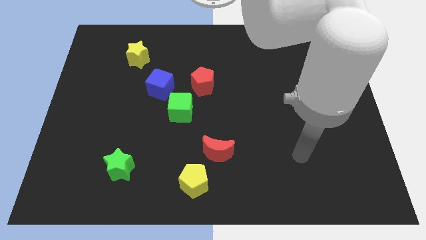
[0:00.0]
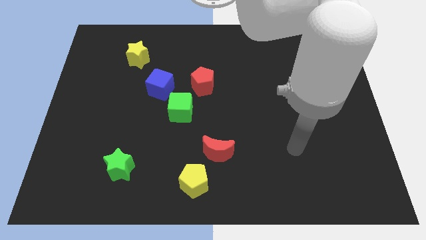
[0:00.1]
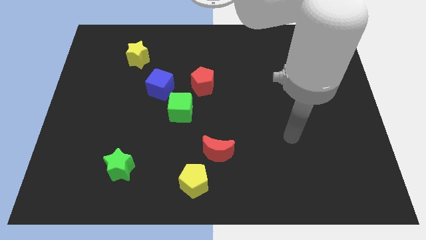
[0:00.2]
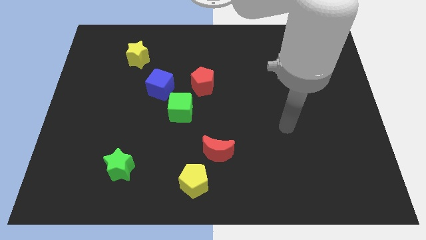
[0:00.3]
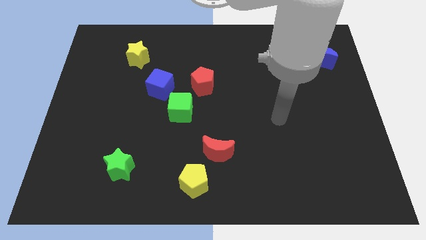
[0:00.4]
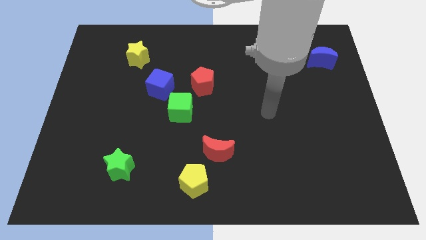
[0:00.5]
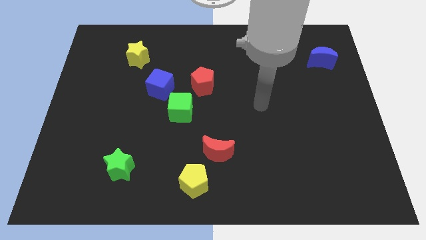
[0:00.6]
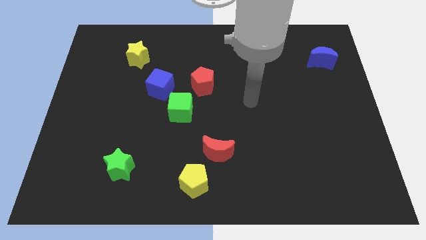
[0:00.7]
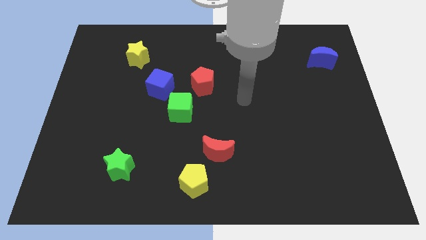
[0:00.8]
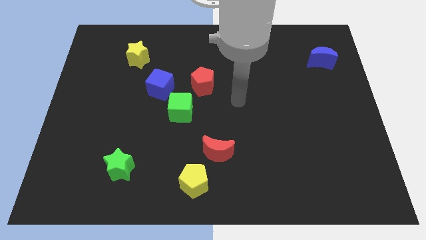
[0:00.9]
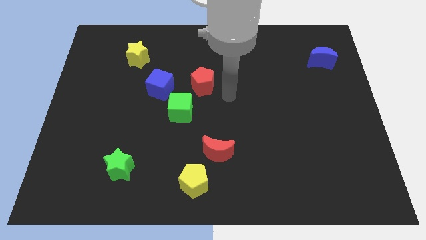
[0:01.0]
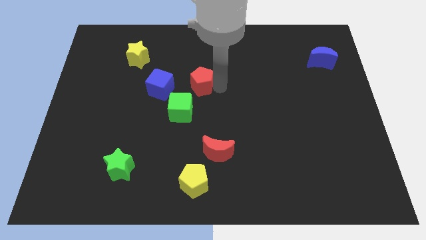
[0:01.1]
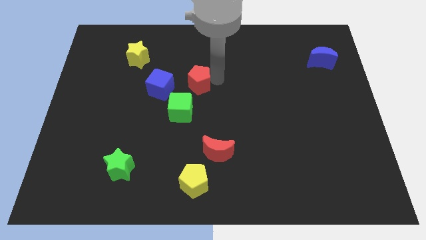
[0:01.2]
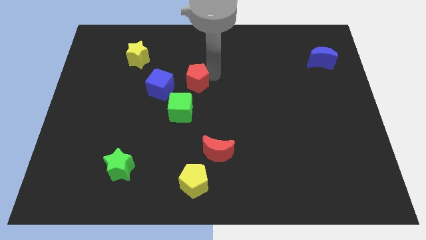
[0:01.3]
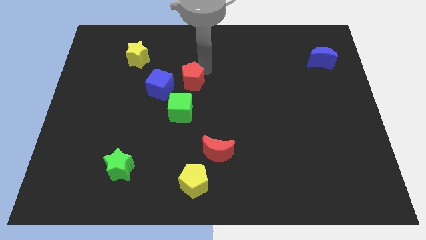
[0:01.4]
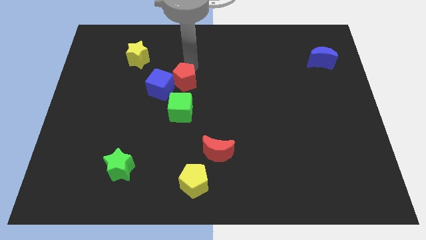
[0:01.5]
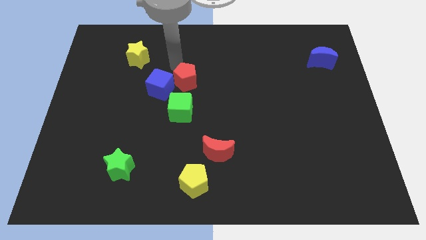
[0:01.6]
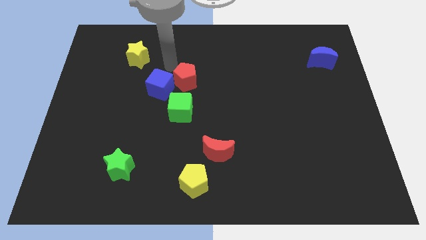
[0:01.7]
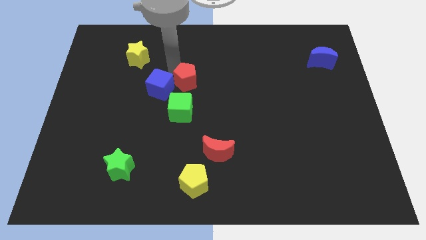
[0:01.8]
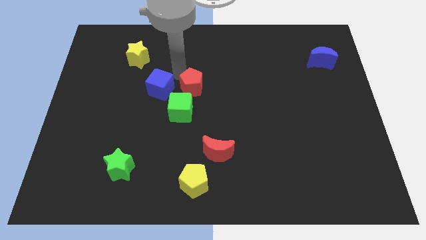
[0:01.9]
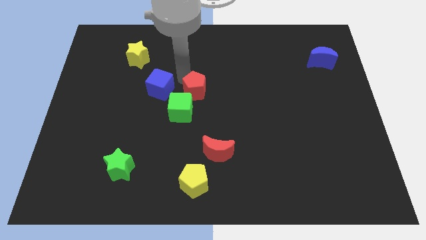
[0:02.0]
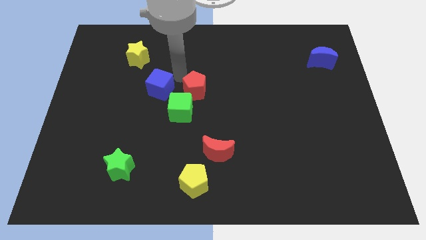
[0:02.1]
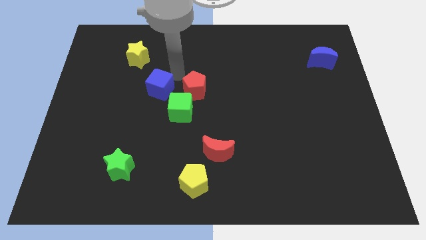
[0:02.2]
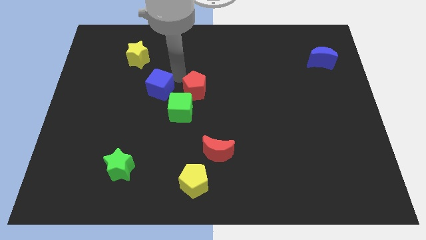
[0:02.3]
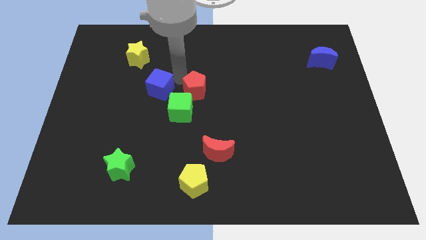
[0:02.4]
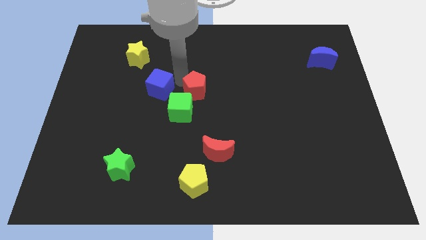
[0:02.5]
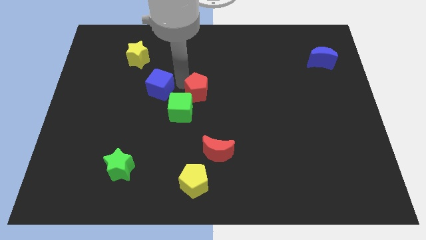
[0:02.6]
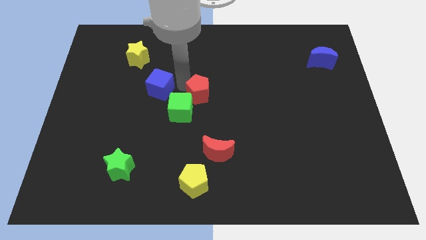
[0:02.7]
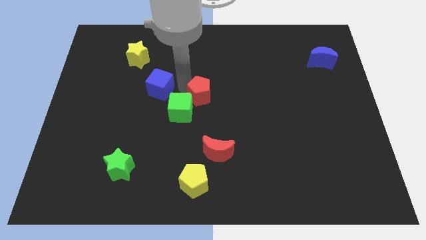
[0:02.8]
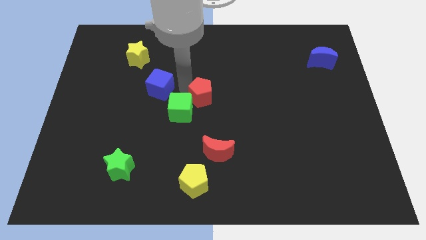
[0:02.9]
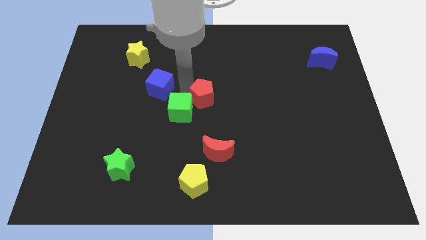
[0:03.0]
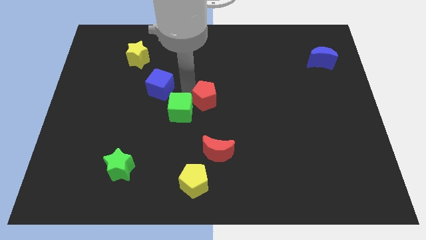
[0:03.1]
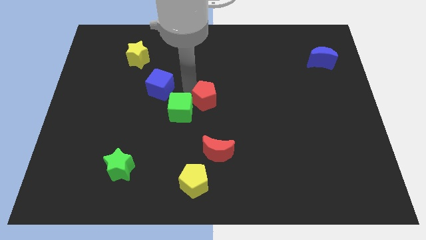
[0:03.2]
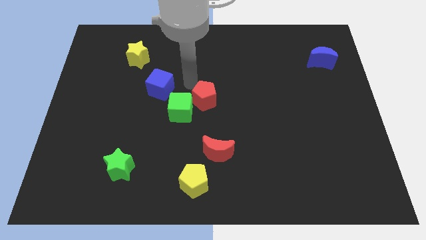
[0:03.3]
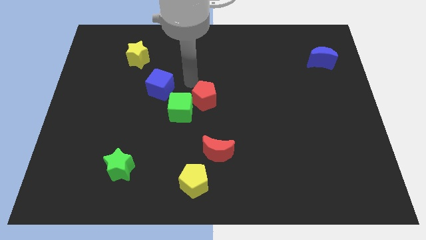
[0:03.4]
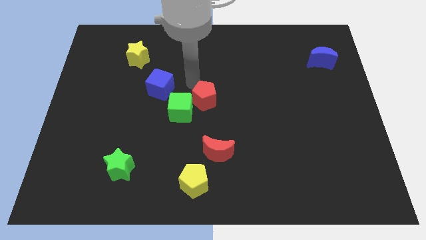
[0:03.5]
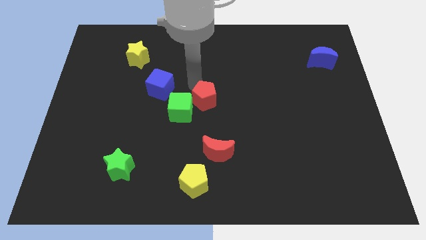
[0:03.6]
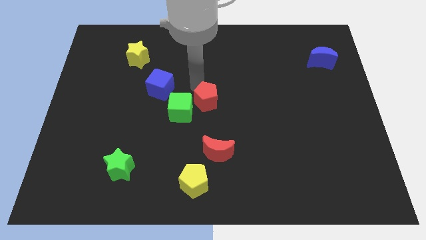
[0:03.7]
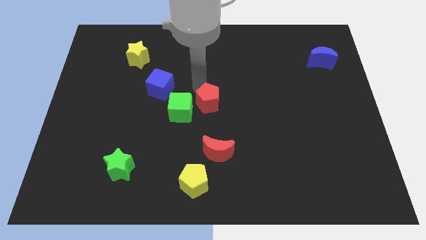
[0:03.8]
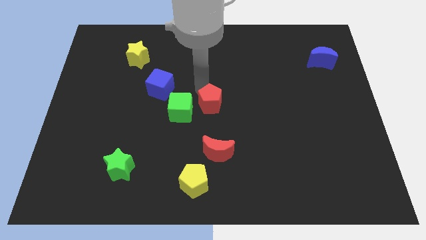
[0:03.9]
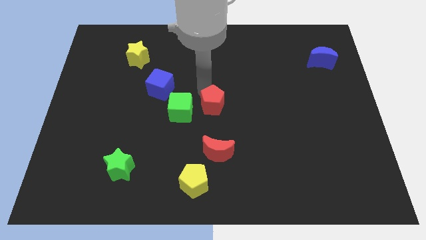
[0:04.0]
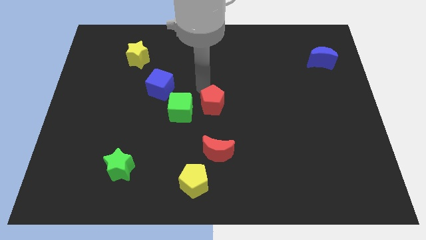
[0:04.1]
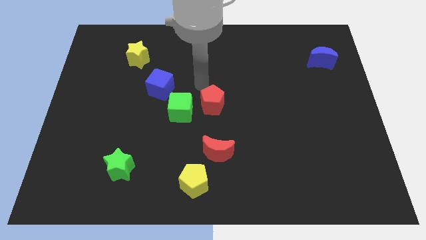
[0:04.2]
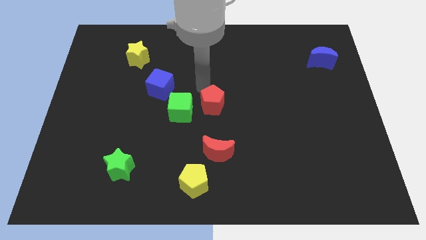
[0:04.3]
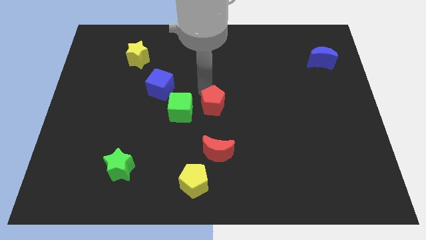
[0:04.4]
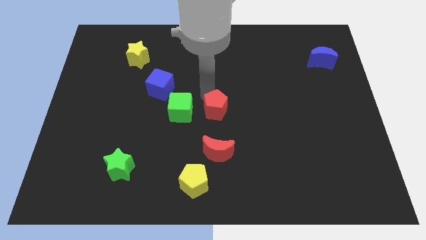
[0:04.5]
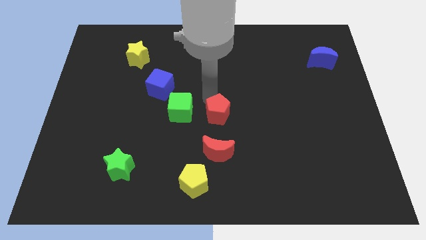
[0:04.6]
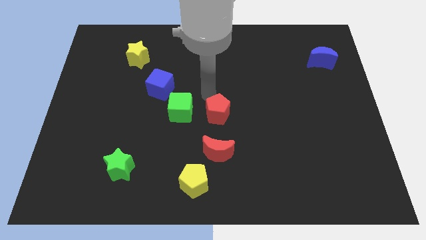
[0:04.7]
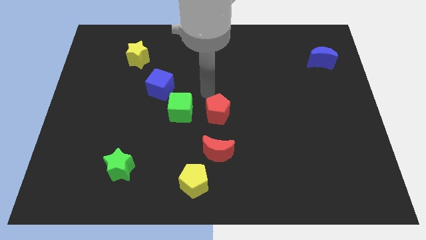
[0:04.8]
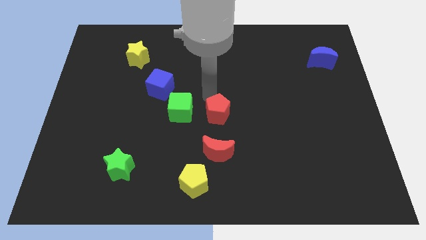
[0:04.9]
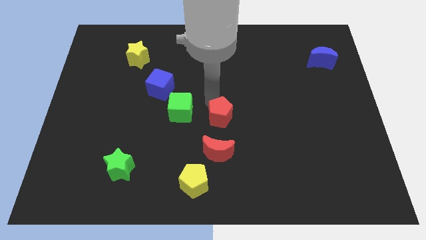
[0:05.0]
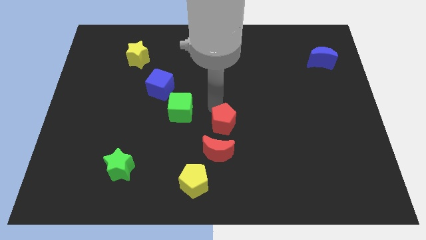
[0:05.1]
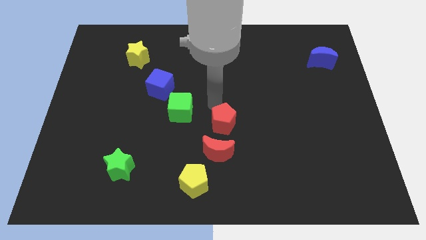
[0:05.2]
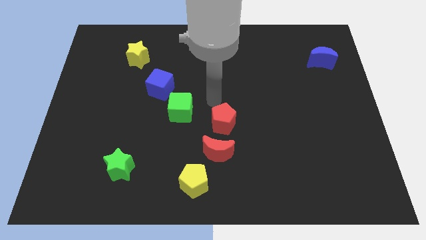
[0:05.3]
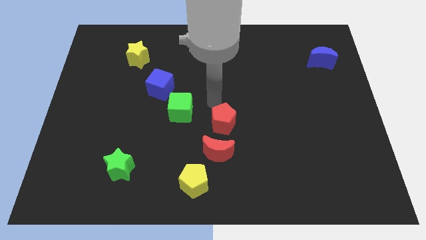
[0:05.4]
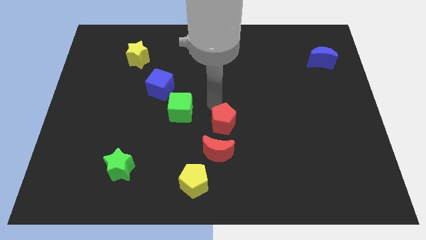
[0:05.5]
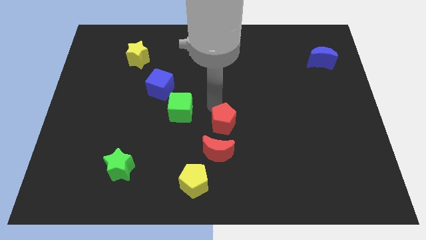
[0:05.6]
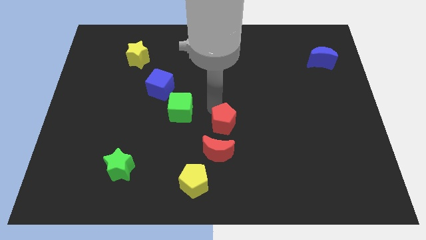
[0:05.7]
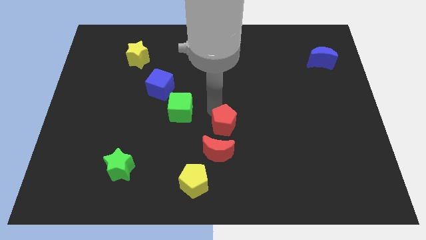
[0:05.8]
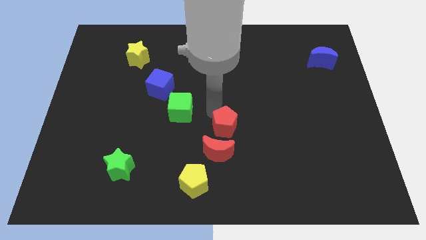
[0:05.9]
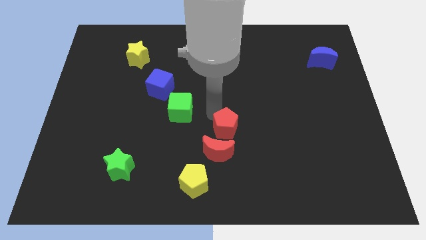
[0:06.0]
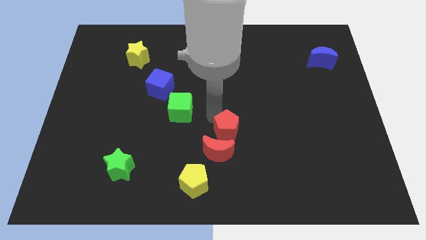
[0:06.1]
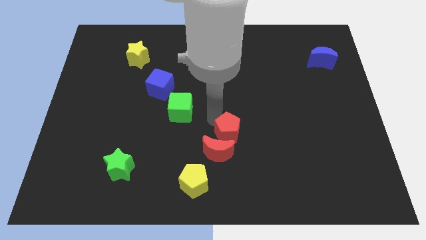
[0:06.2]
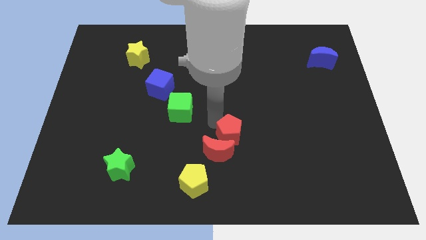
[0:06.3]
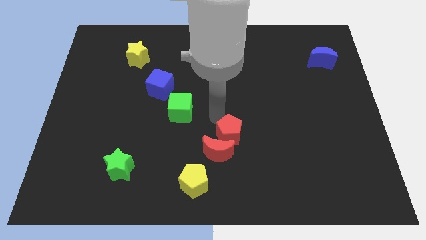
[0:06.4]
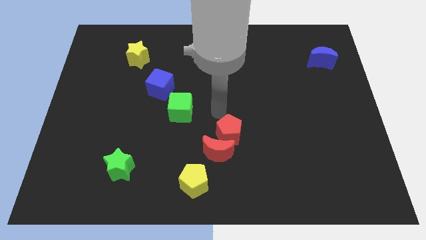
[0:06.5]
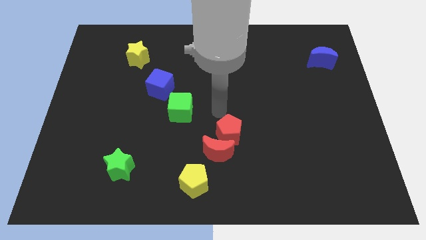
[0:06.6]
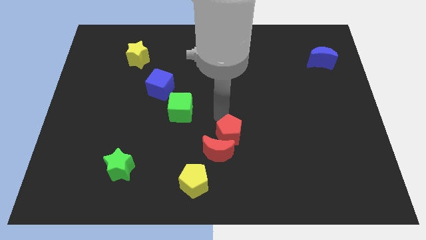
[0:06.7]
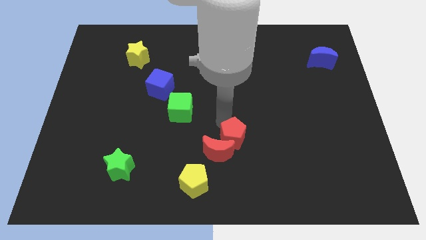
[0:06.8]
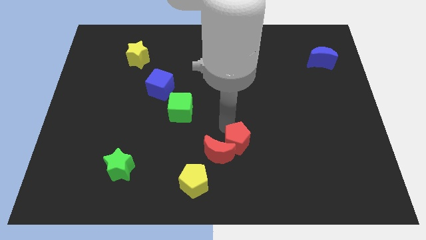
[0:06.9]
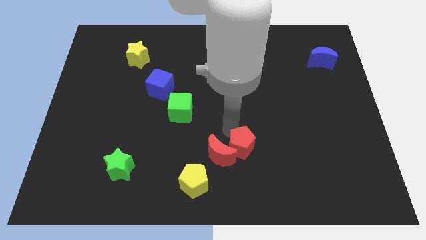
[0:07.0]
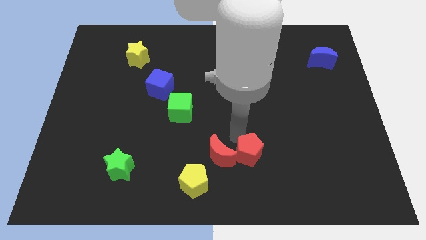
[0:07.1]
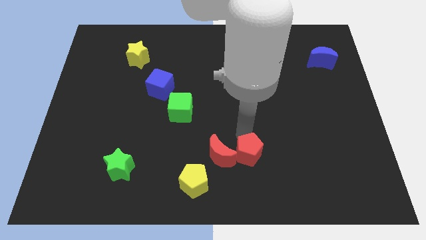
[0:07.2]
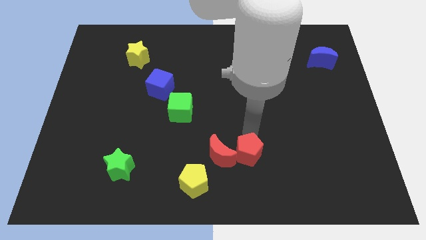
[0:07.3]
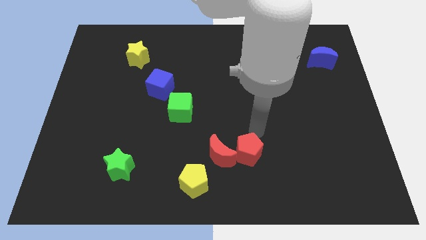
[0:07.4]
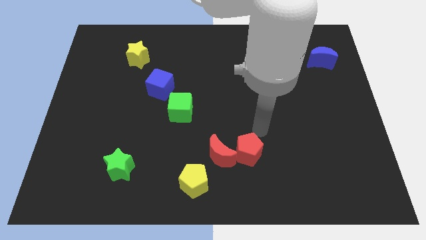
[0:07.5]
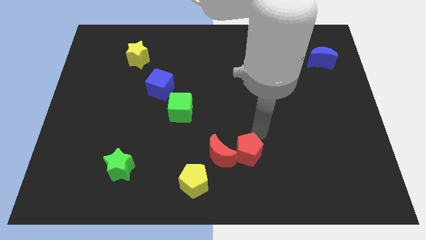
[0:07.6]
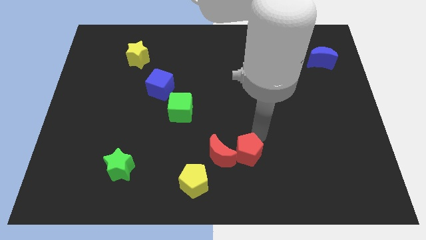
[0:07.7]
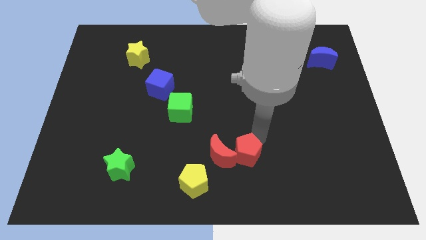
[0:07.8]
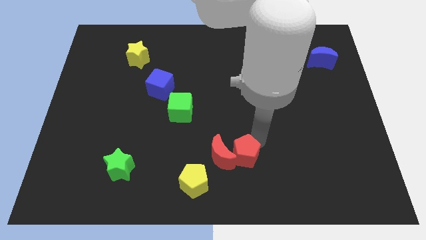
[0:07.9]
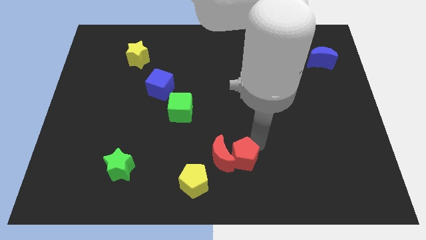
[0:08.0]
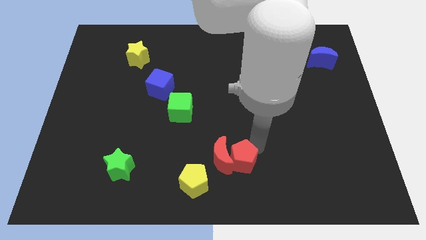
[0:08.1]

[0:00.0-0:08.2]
move the red pentagon to the bottom side
